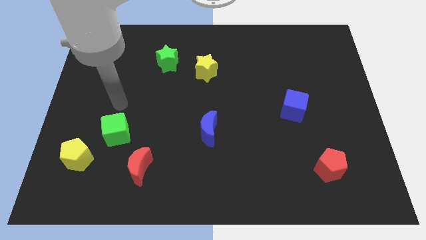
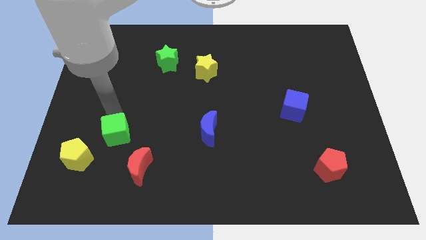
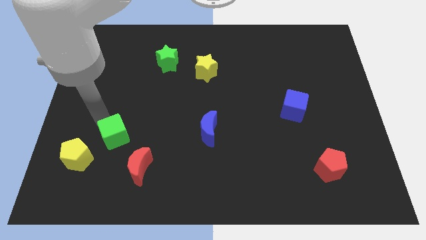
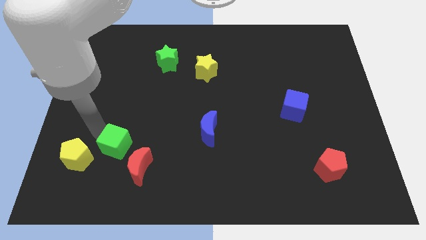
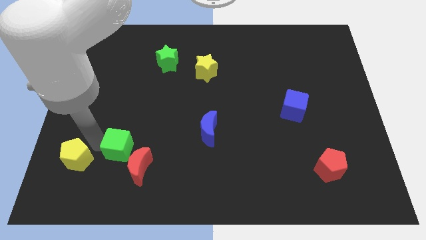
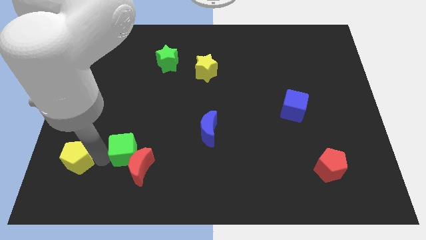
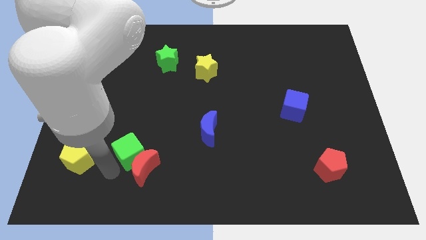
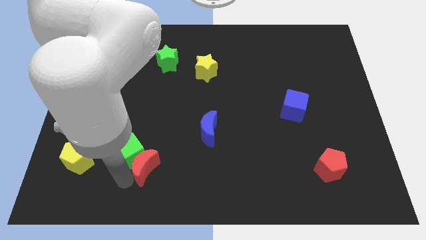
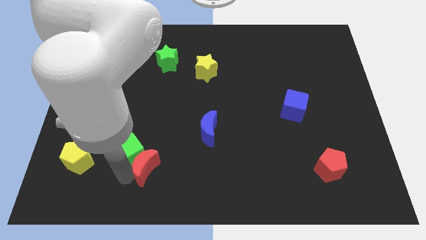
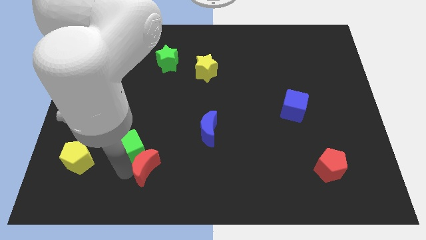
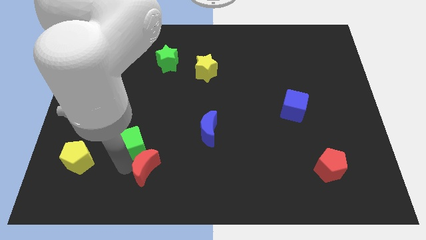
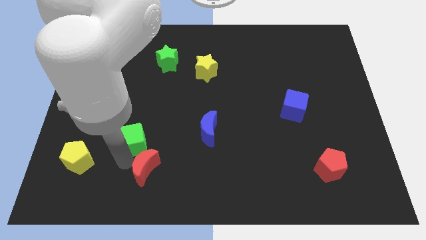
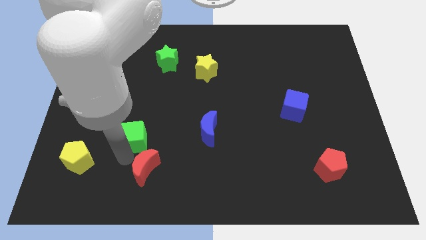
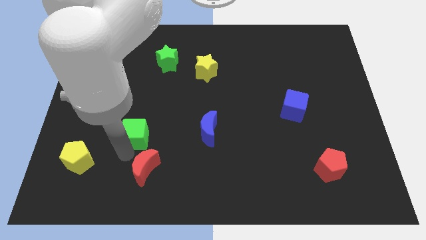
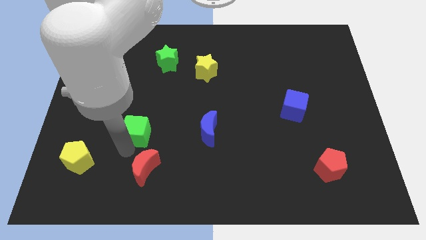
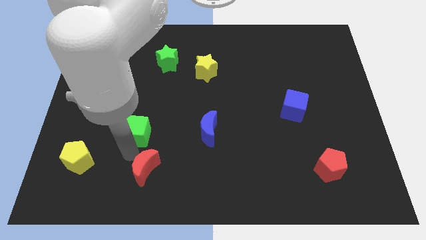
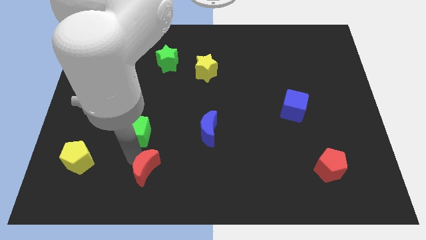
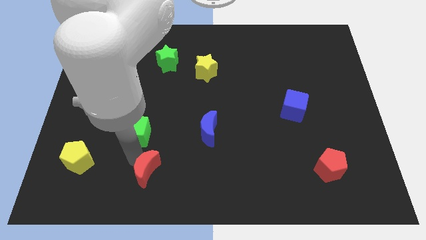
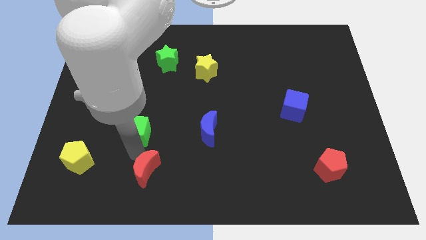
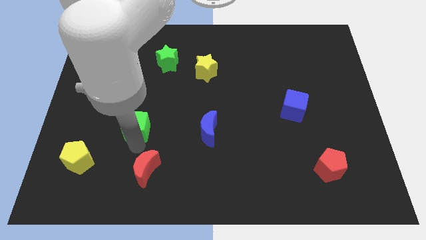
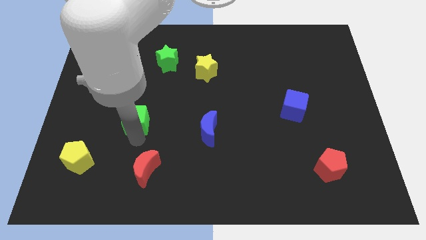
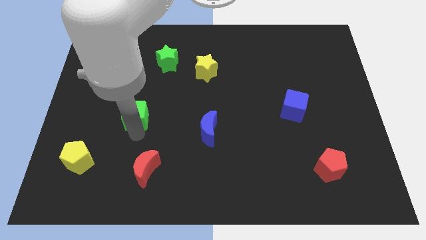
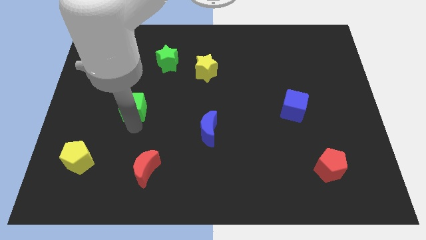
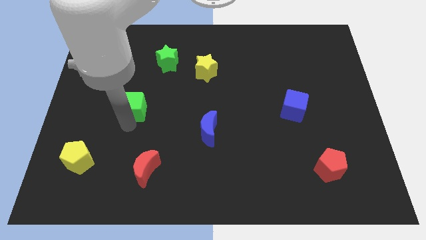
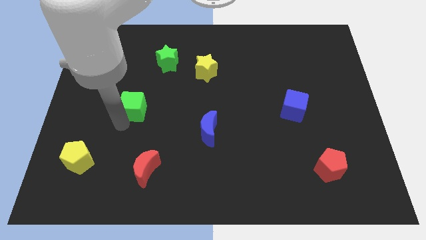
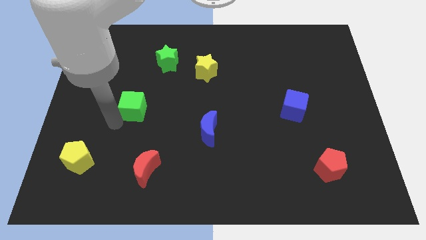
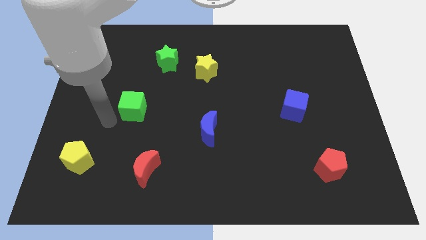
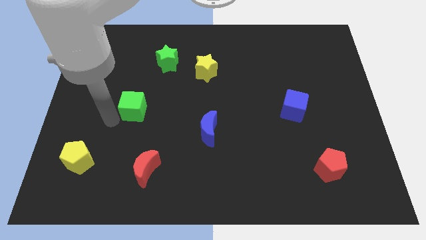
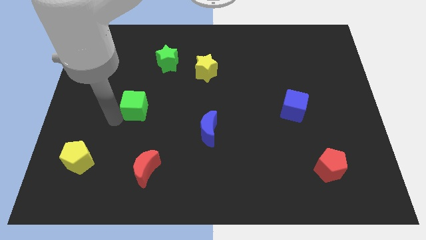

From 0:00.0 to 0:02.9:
push the green cube upwards and to the right a little bit

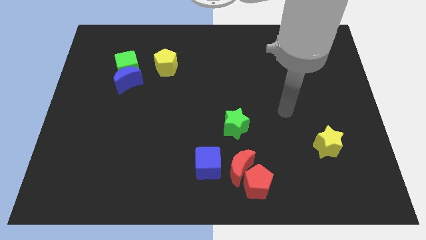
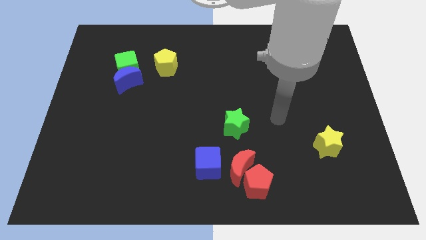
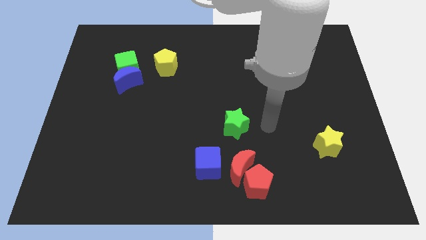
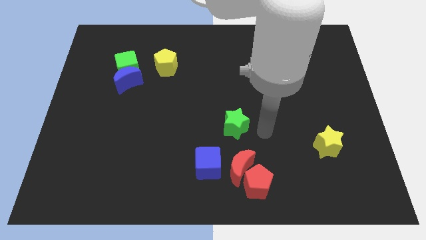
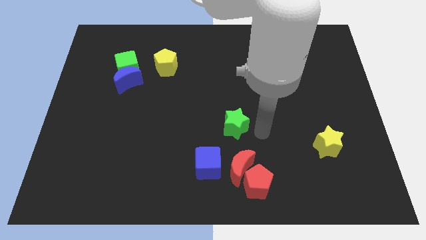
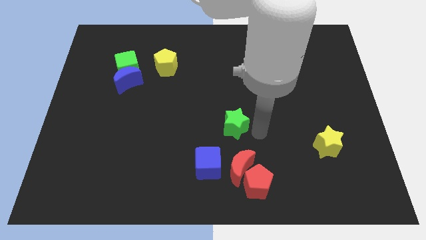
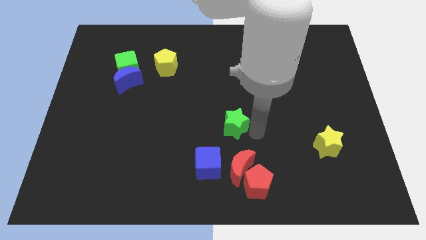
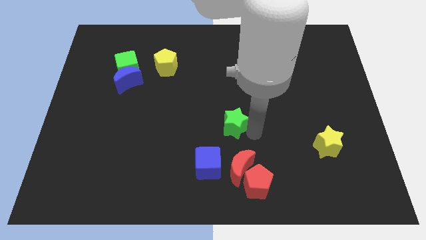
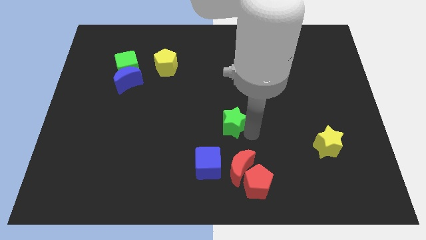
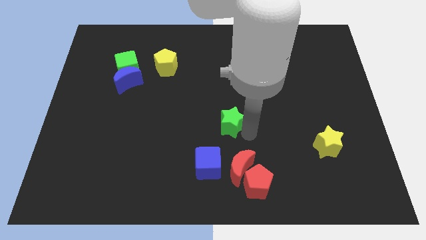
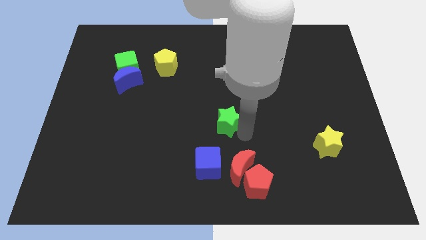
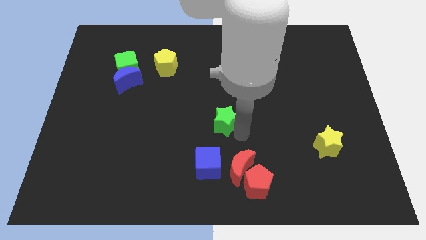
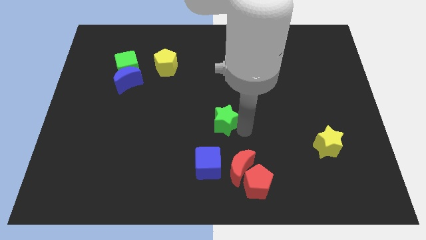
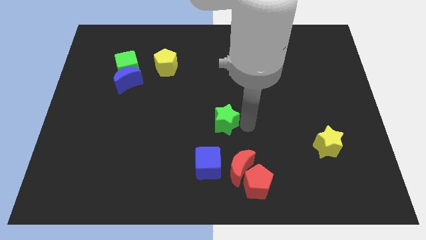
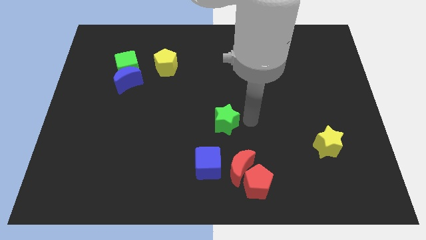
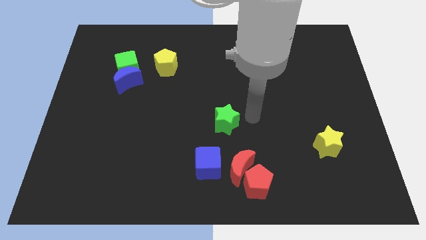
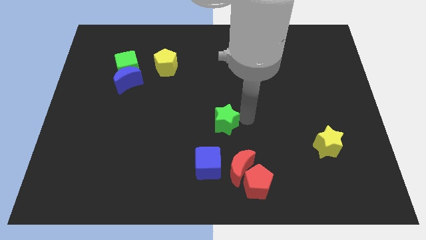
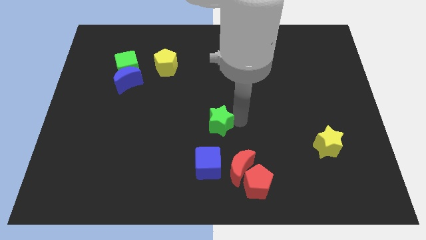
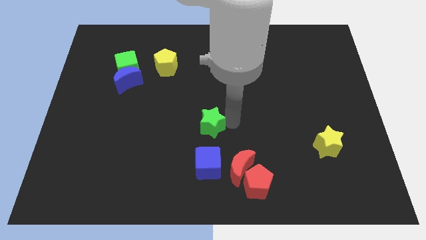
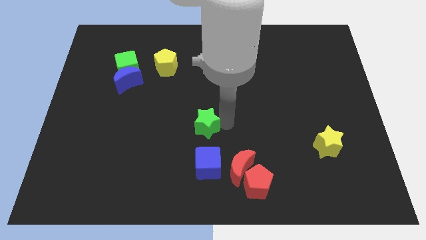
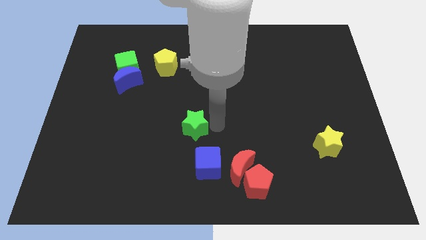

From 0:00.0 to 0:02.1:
push the green star a bit left

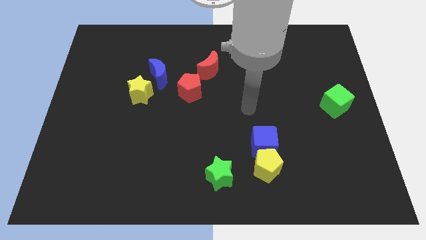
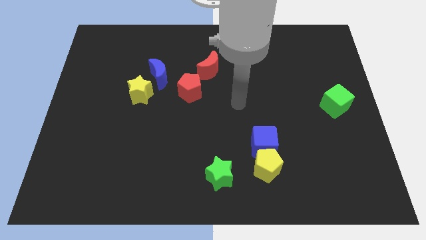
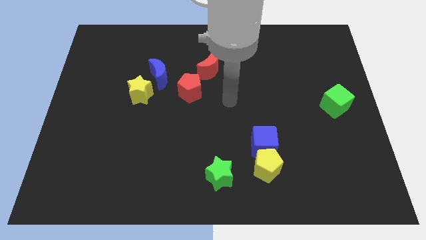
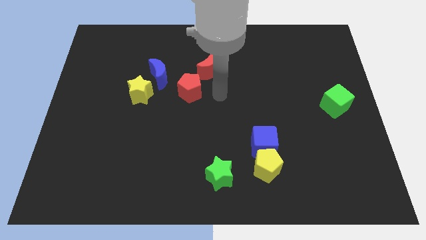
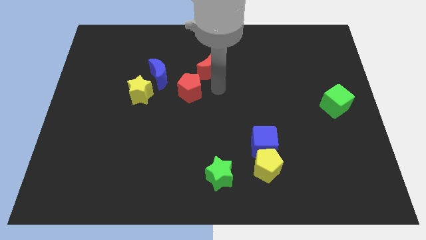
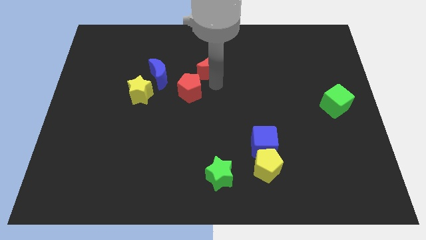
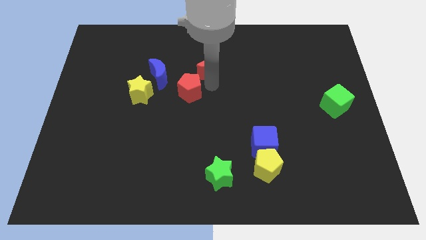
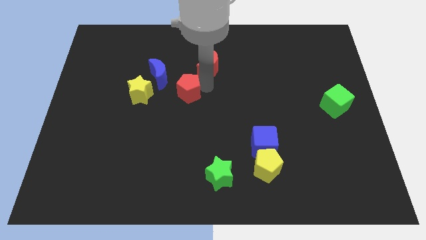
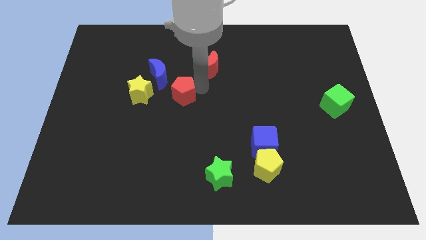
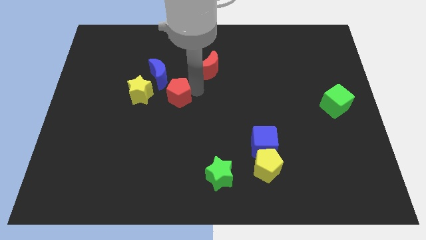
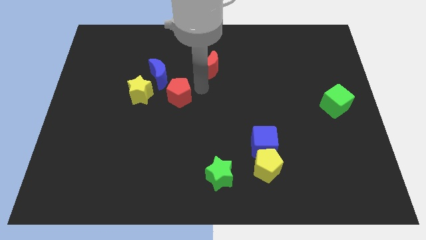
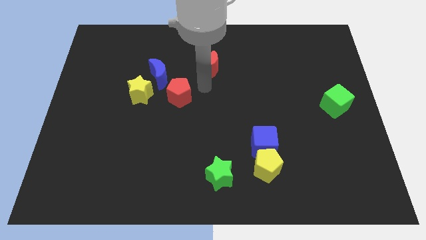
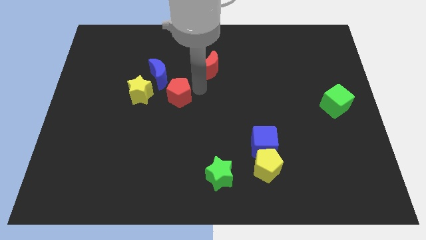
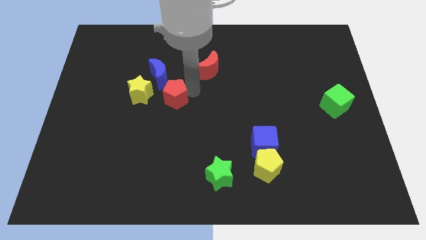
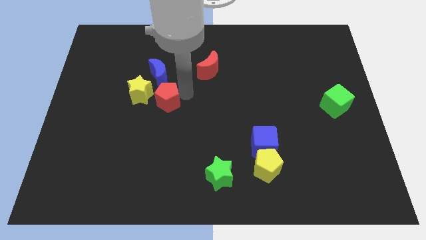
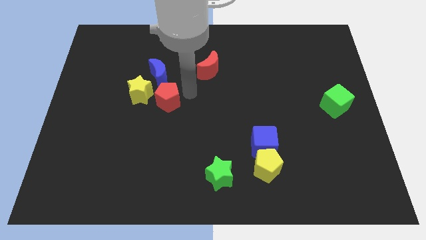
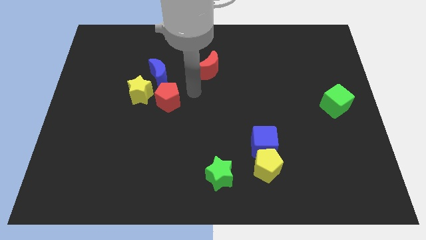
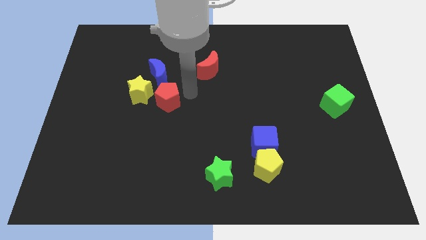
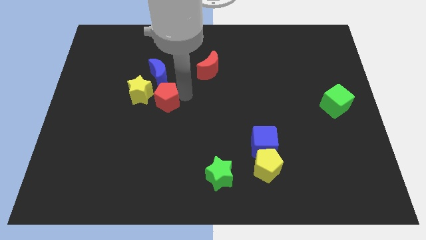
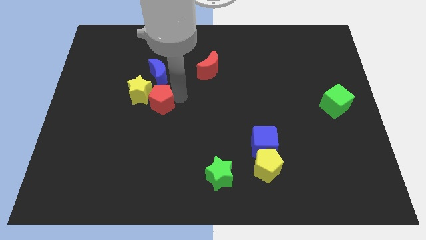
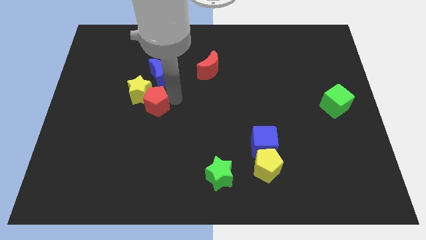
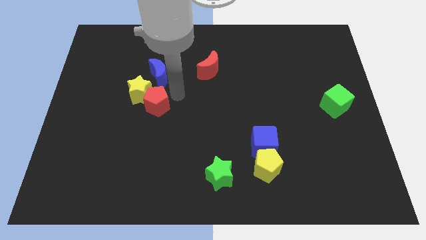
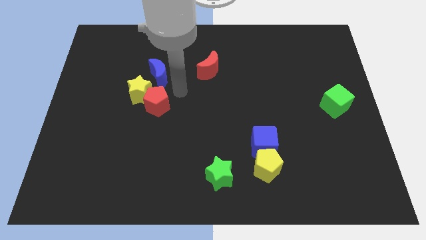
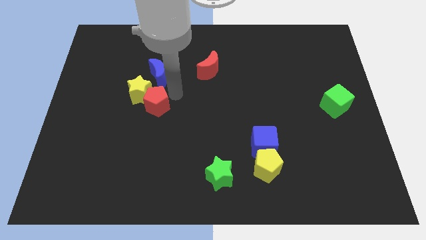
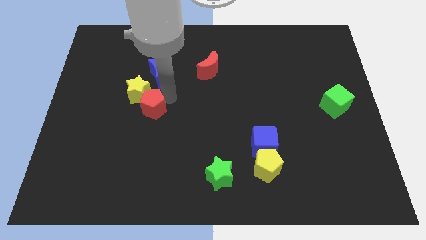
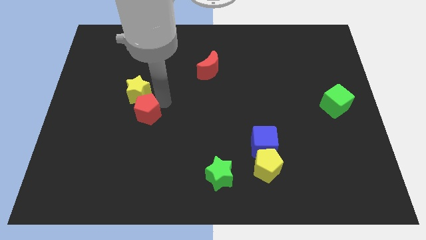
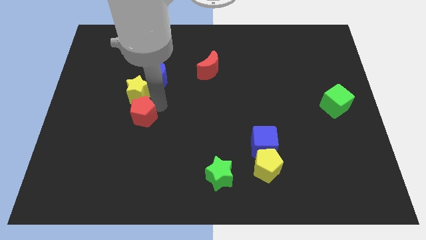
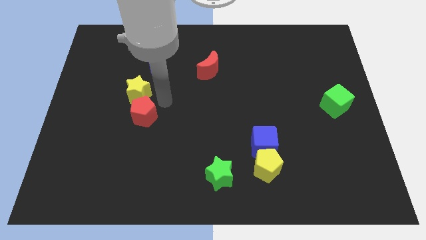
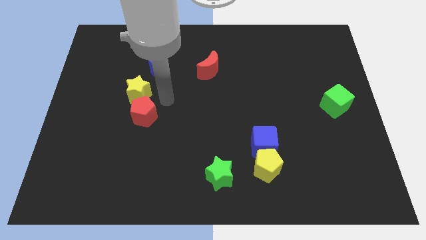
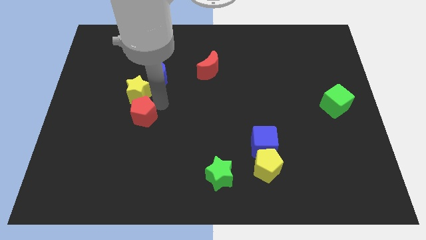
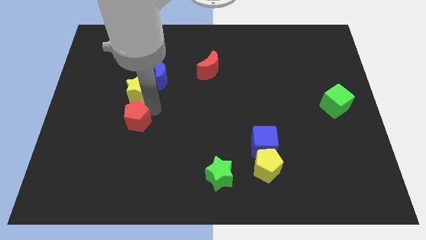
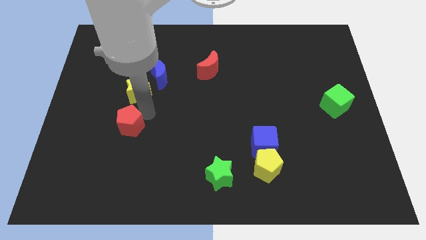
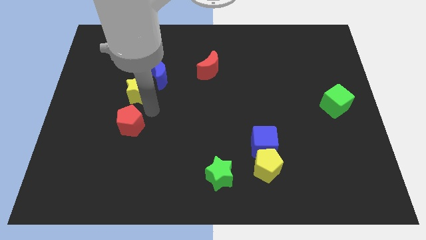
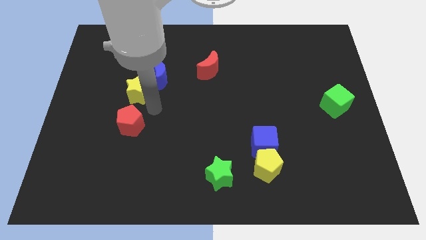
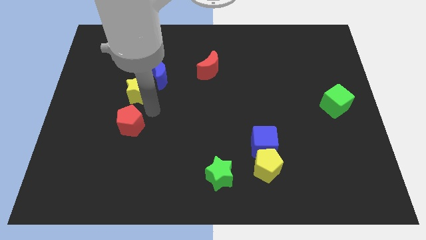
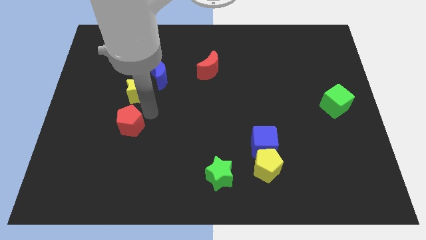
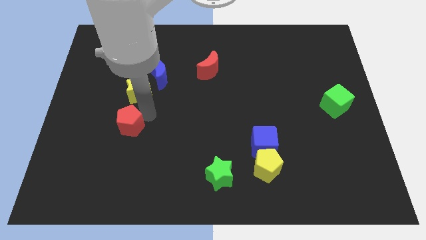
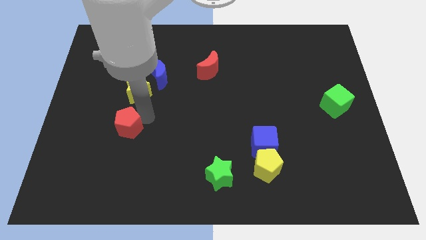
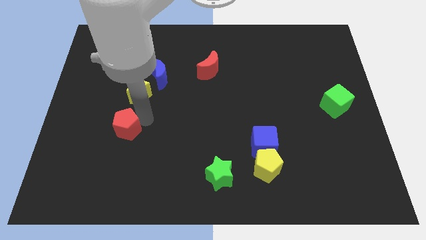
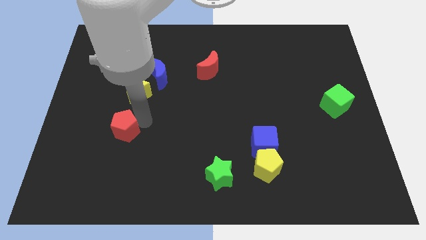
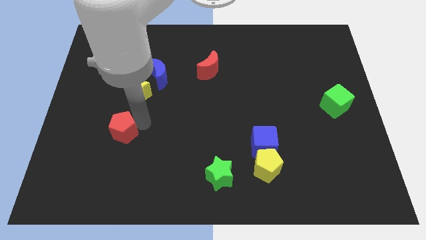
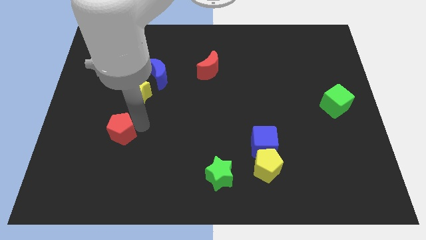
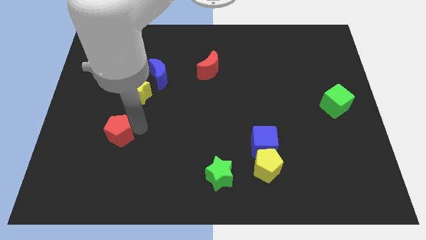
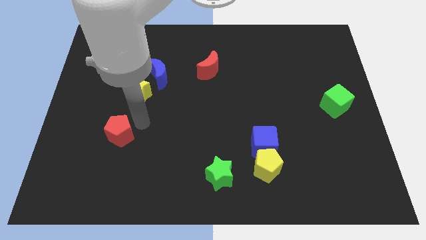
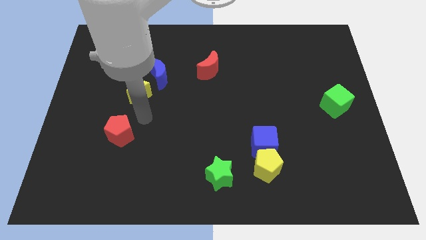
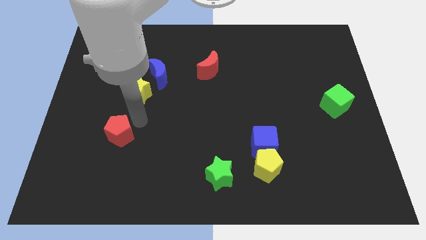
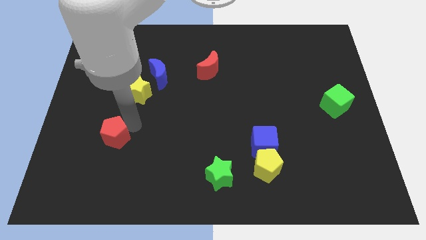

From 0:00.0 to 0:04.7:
move the red pentagon down and to the left
